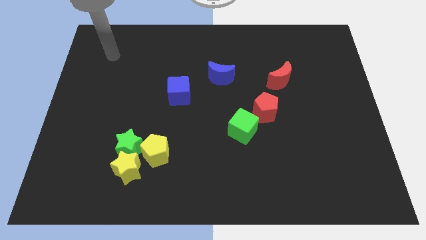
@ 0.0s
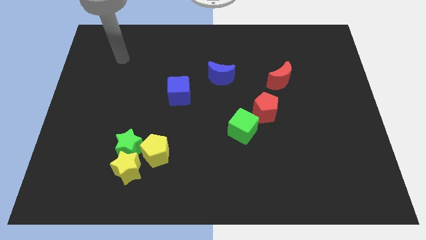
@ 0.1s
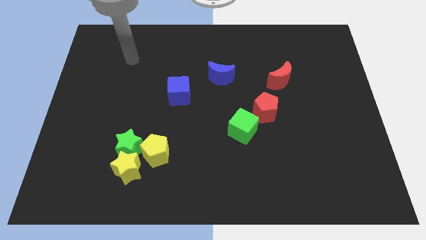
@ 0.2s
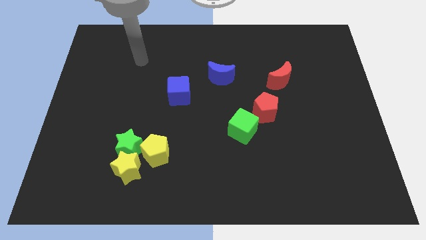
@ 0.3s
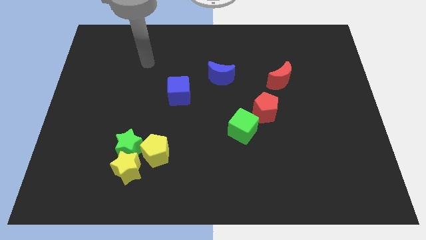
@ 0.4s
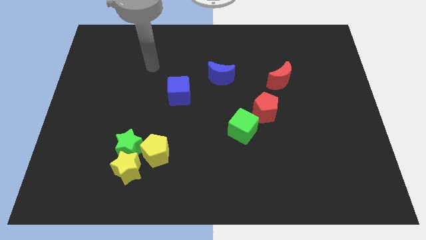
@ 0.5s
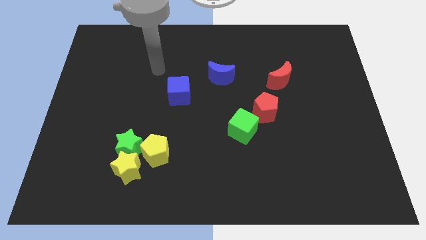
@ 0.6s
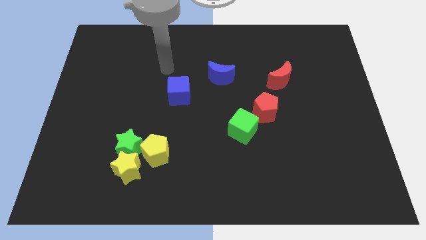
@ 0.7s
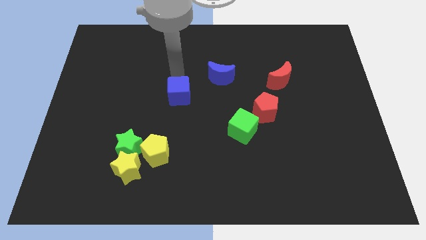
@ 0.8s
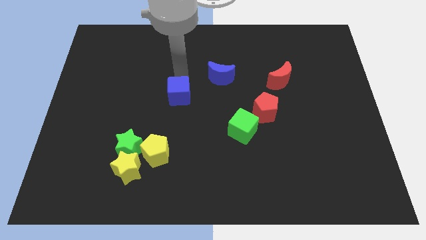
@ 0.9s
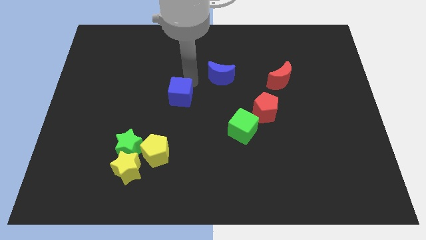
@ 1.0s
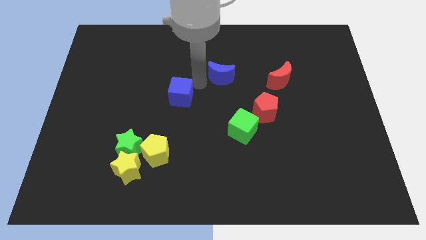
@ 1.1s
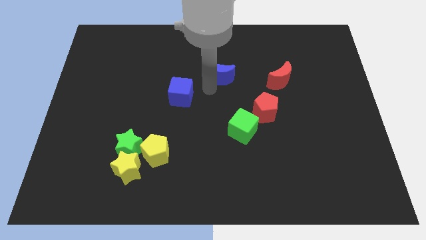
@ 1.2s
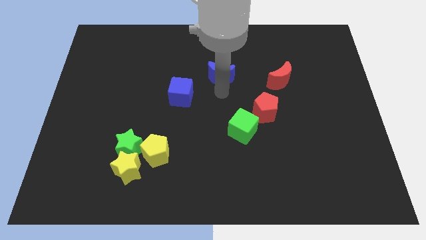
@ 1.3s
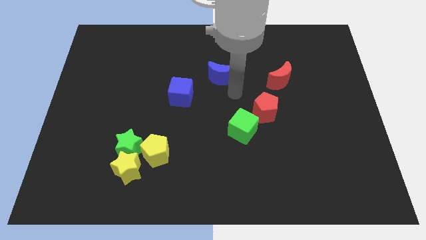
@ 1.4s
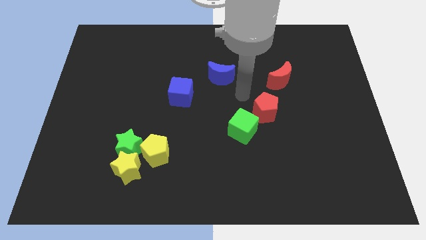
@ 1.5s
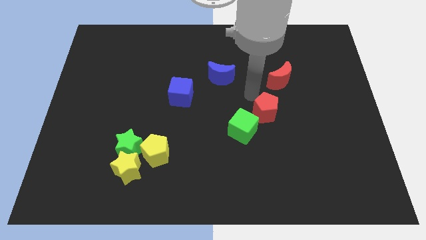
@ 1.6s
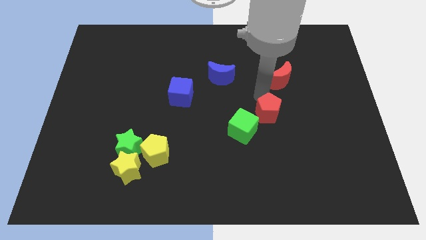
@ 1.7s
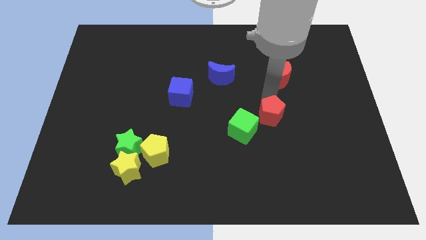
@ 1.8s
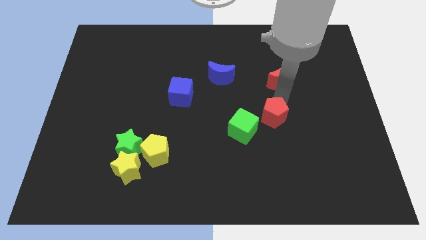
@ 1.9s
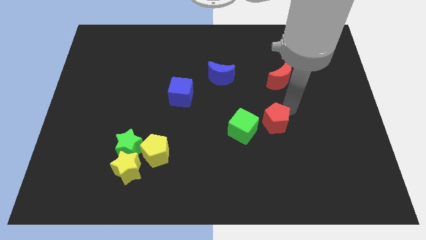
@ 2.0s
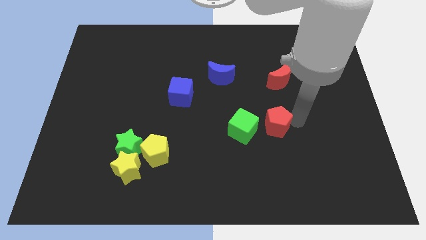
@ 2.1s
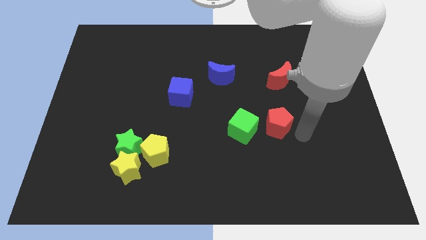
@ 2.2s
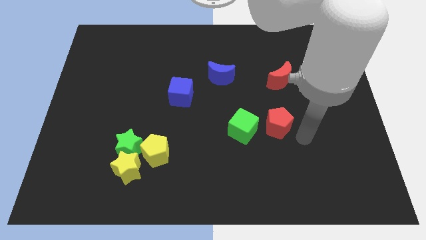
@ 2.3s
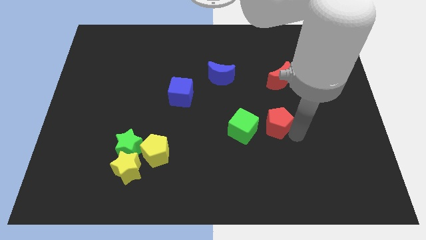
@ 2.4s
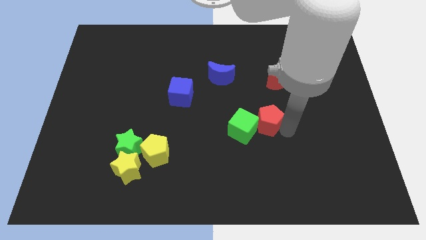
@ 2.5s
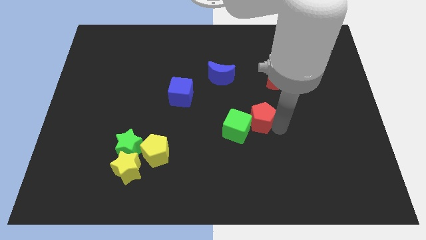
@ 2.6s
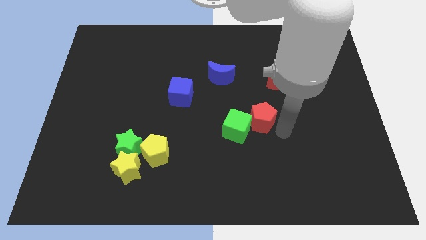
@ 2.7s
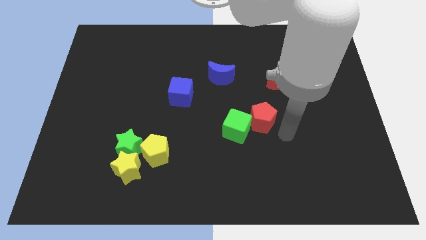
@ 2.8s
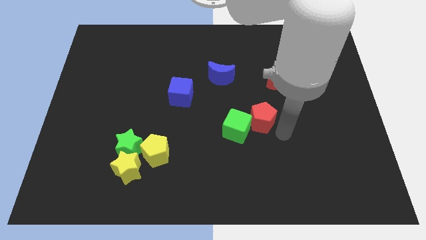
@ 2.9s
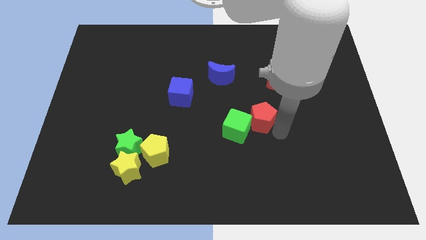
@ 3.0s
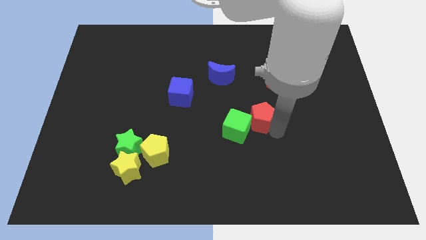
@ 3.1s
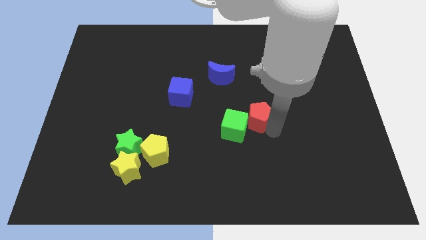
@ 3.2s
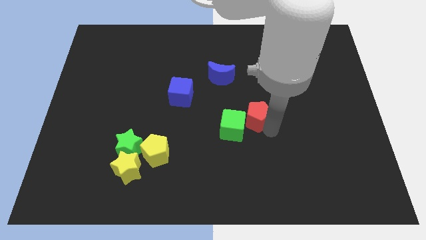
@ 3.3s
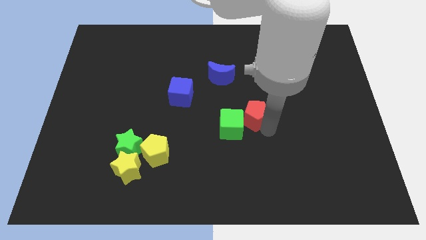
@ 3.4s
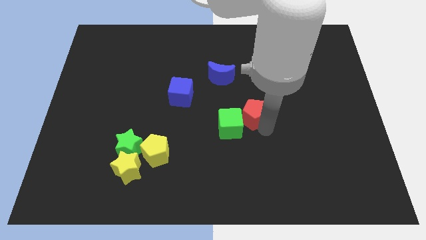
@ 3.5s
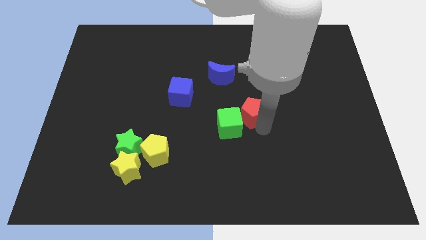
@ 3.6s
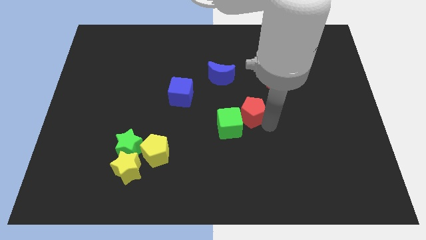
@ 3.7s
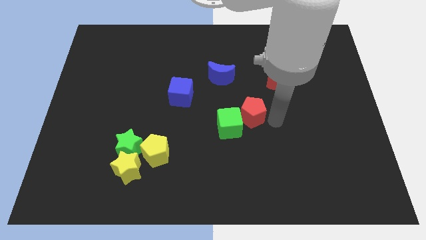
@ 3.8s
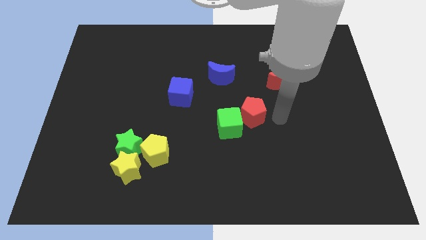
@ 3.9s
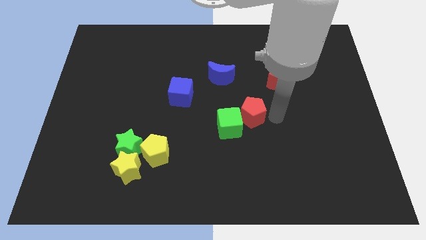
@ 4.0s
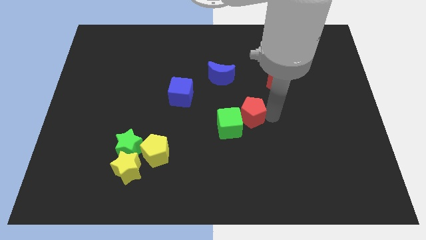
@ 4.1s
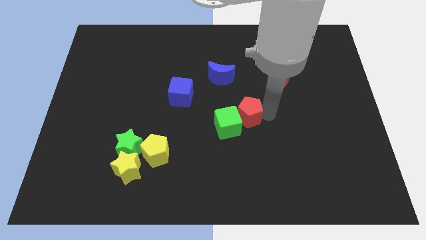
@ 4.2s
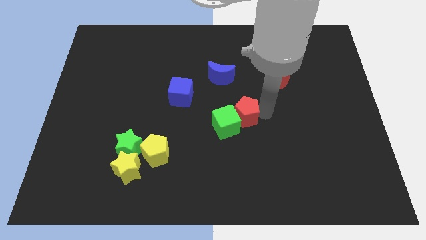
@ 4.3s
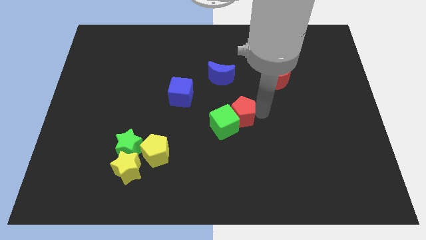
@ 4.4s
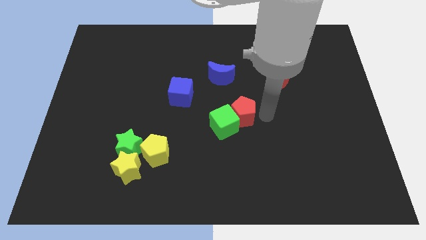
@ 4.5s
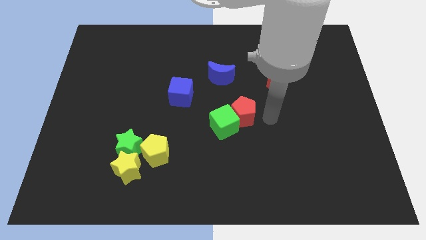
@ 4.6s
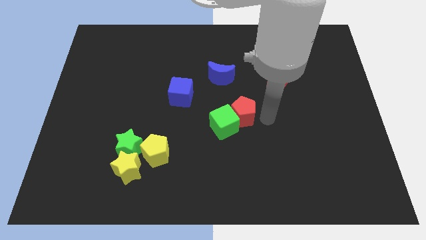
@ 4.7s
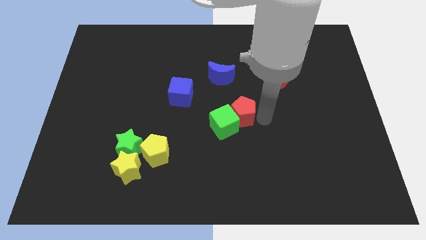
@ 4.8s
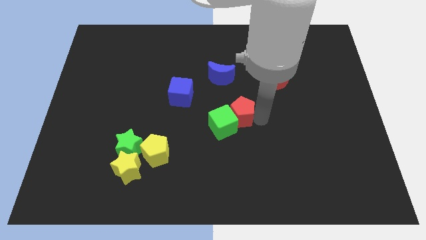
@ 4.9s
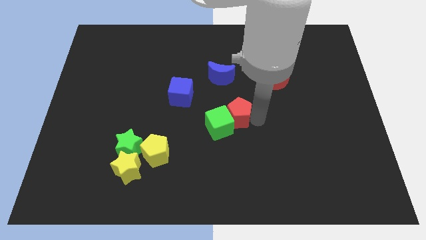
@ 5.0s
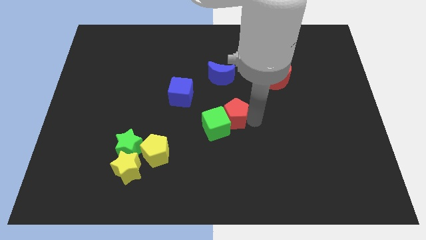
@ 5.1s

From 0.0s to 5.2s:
push the red pentagon a little left

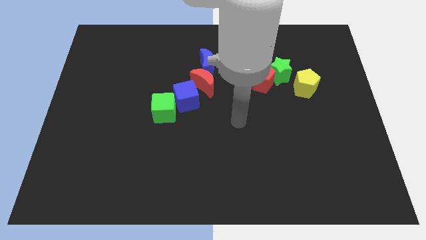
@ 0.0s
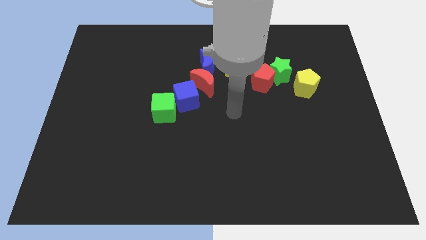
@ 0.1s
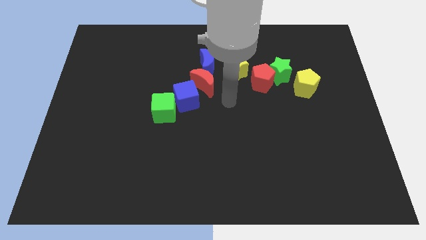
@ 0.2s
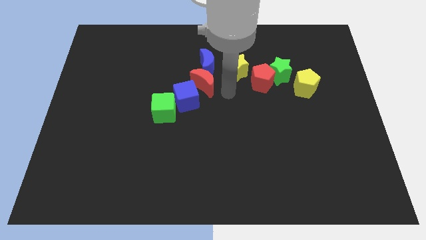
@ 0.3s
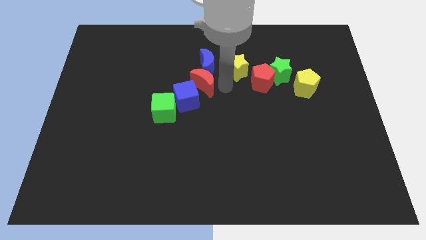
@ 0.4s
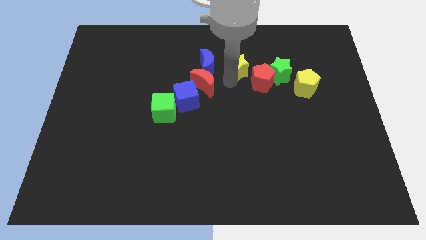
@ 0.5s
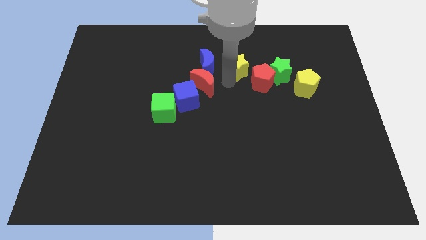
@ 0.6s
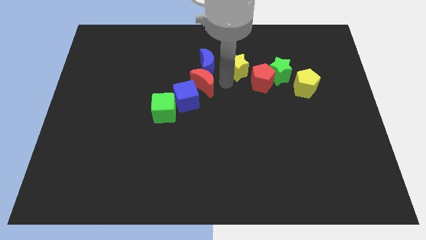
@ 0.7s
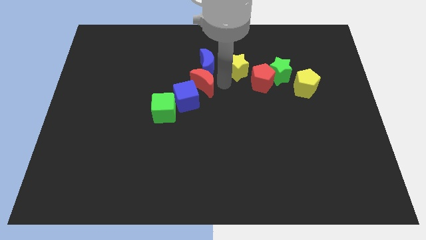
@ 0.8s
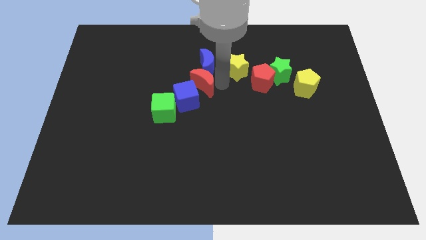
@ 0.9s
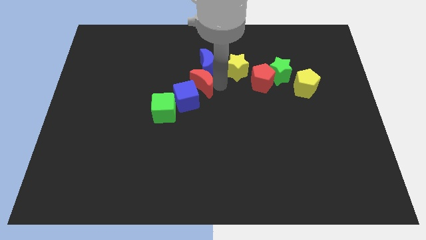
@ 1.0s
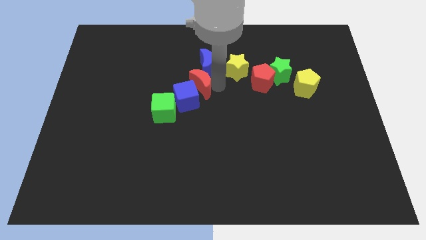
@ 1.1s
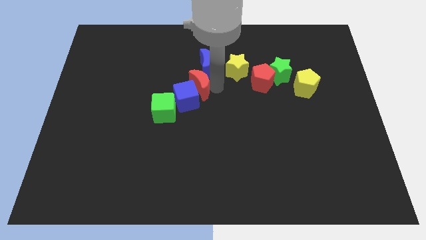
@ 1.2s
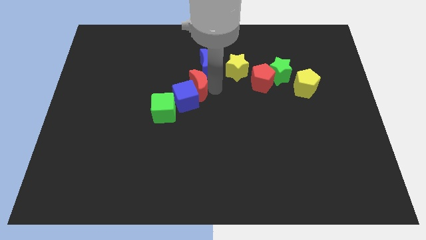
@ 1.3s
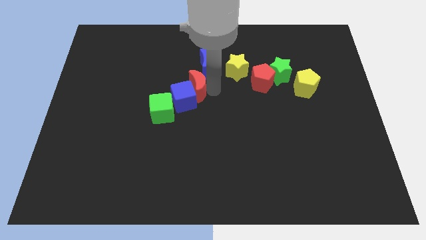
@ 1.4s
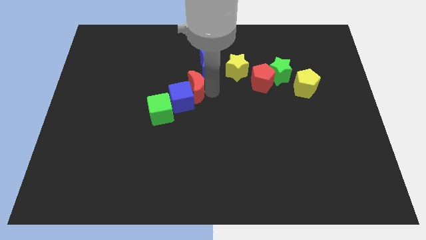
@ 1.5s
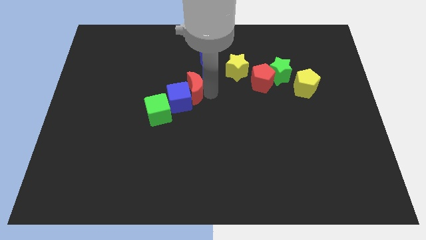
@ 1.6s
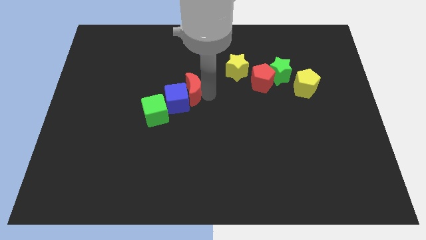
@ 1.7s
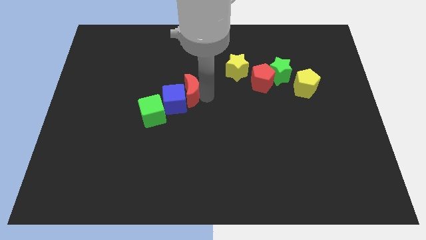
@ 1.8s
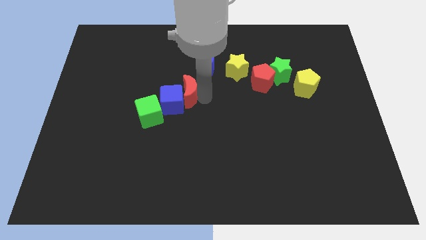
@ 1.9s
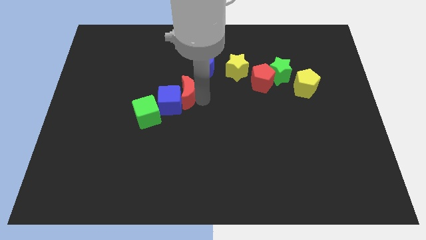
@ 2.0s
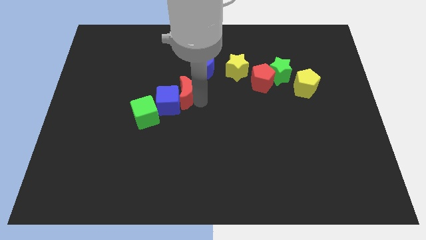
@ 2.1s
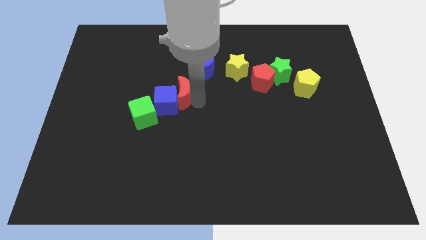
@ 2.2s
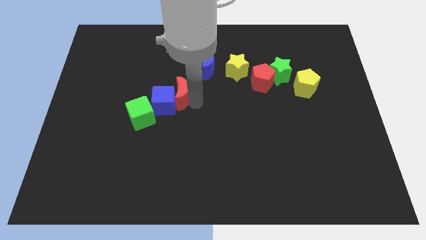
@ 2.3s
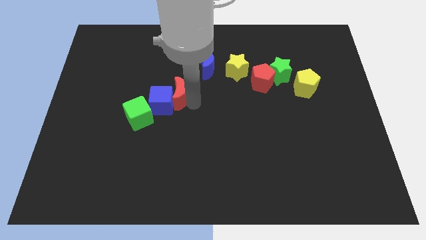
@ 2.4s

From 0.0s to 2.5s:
slide the red moon downwards and to the left a little bit

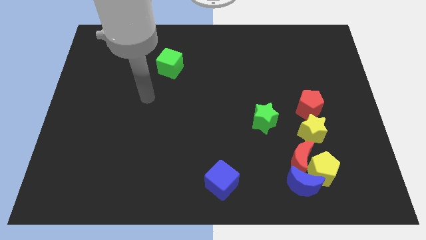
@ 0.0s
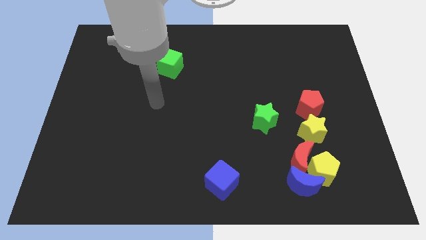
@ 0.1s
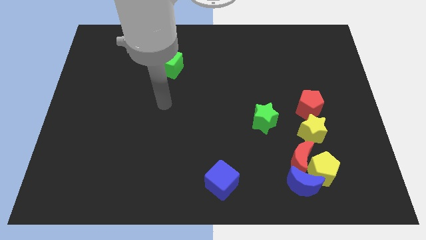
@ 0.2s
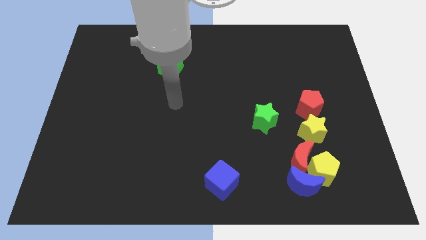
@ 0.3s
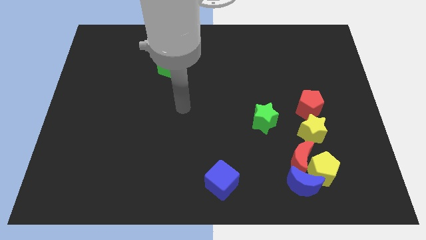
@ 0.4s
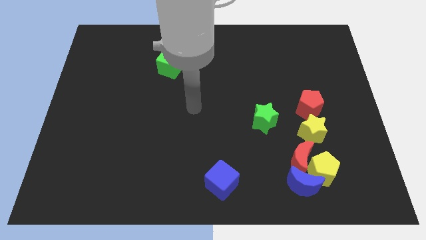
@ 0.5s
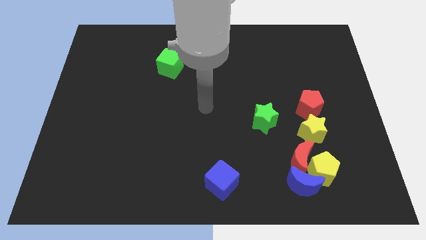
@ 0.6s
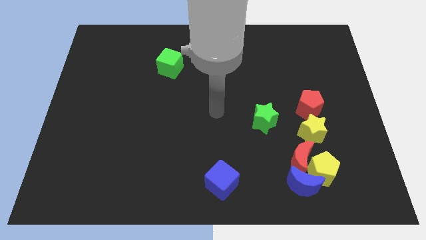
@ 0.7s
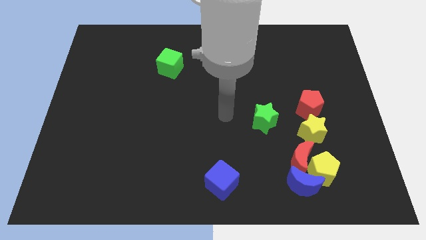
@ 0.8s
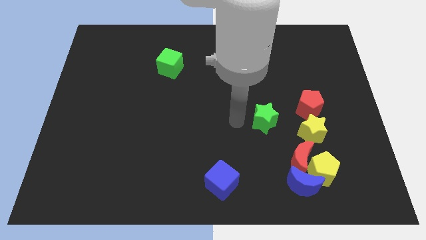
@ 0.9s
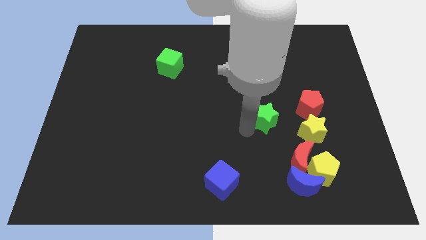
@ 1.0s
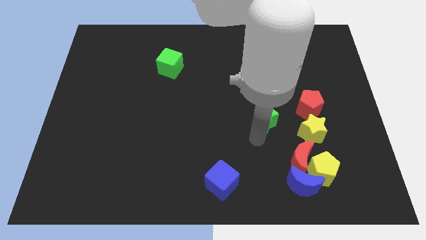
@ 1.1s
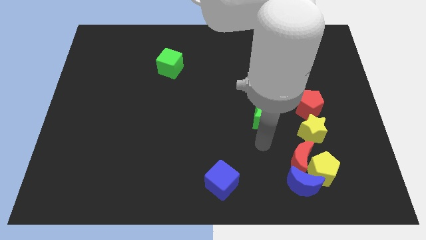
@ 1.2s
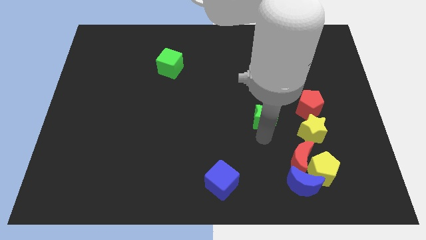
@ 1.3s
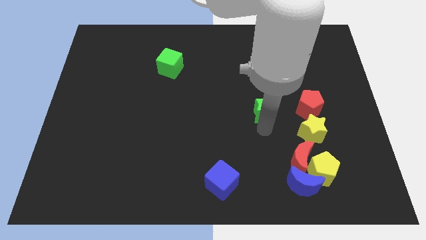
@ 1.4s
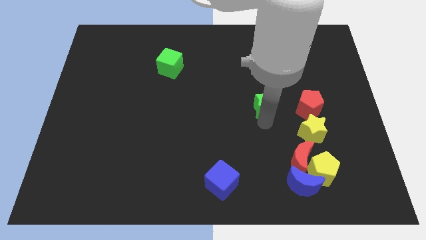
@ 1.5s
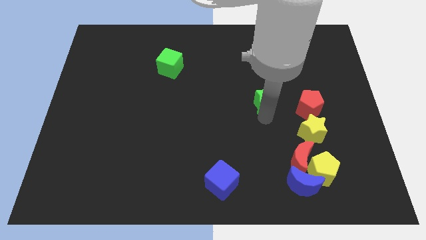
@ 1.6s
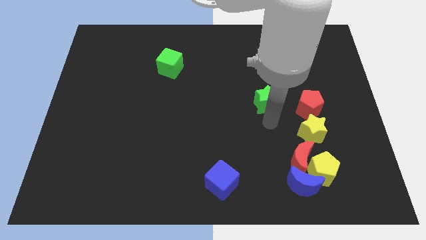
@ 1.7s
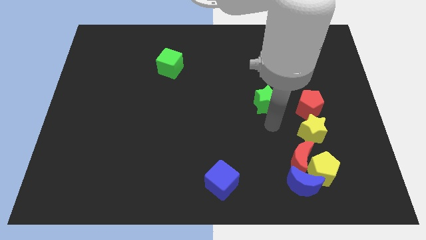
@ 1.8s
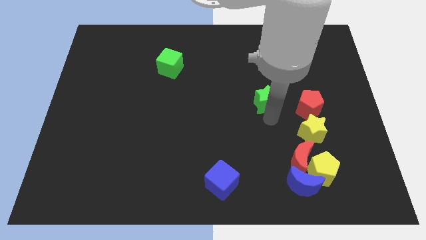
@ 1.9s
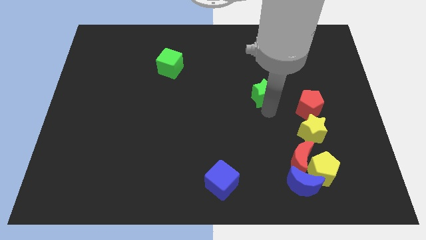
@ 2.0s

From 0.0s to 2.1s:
slightly move the green star up
